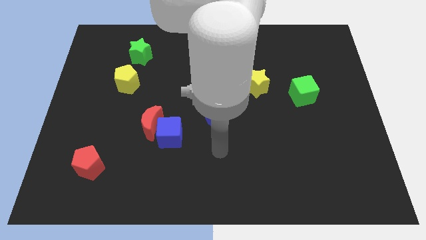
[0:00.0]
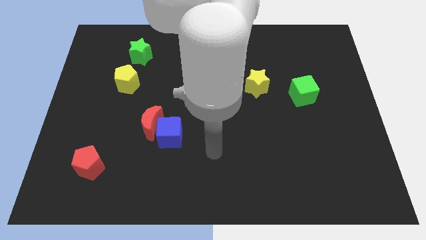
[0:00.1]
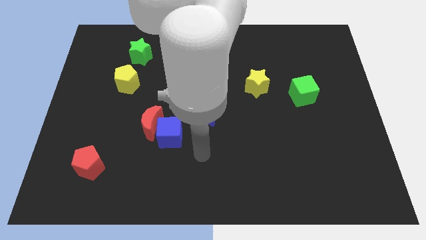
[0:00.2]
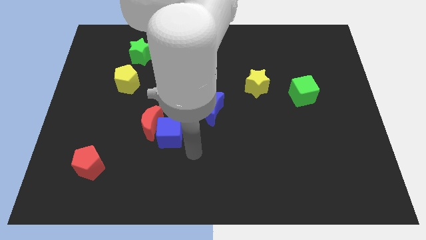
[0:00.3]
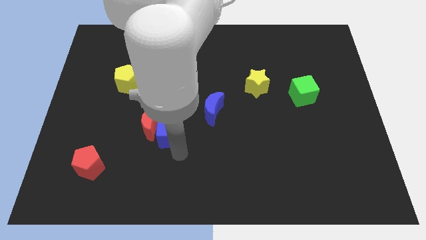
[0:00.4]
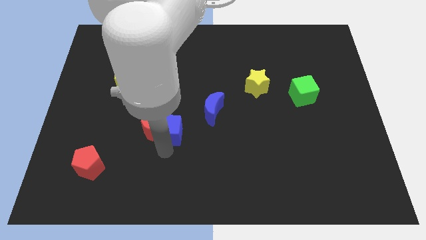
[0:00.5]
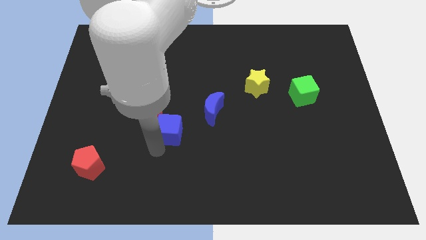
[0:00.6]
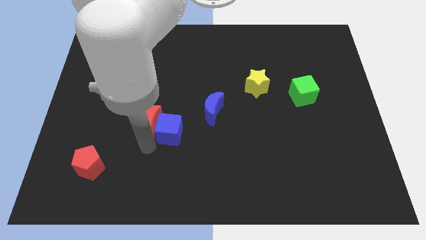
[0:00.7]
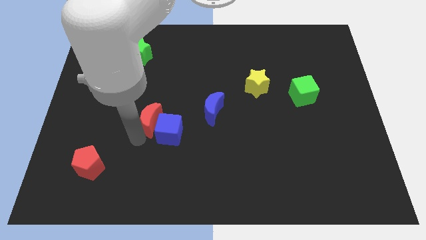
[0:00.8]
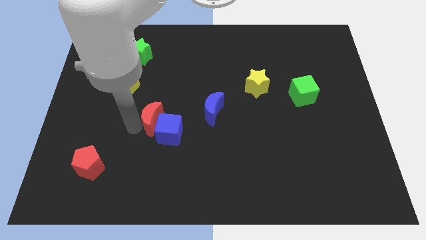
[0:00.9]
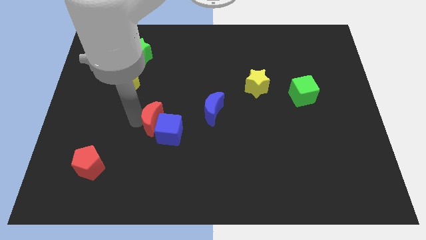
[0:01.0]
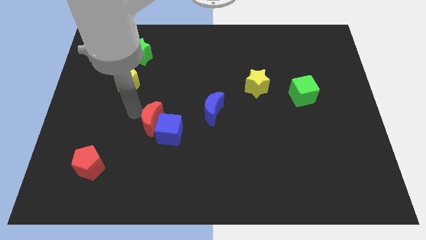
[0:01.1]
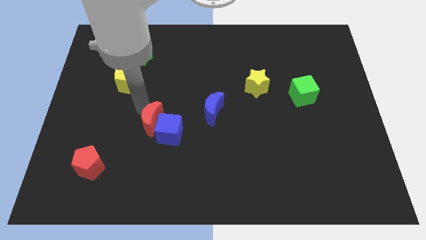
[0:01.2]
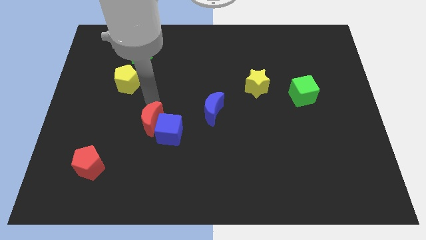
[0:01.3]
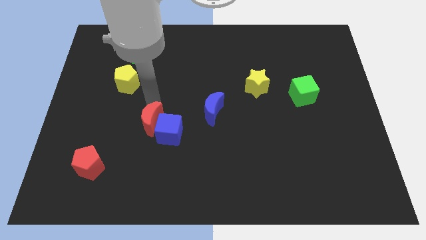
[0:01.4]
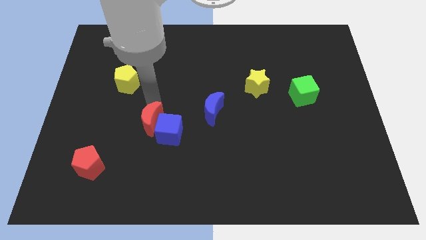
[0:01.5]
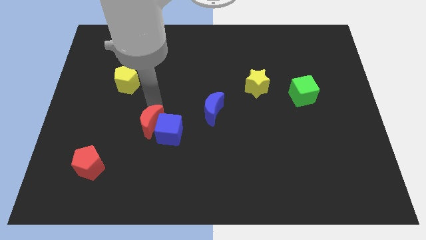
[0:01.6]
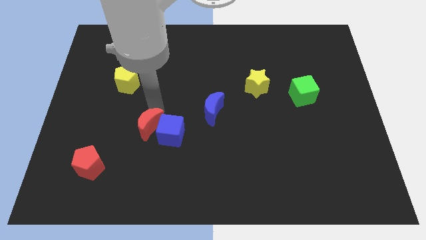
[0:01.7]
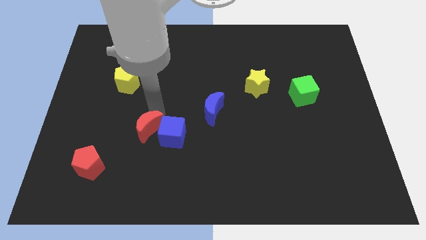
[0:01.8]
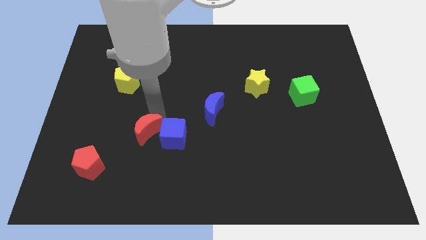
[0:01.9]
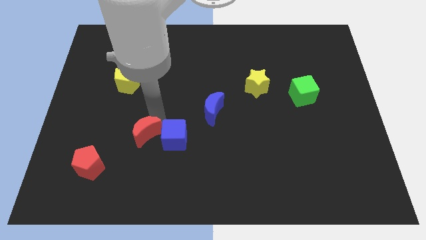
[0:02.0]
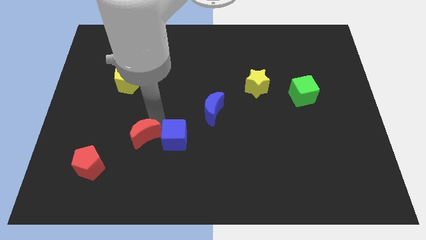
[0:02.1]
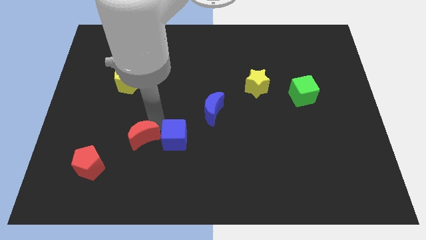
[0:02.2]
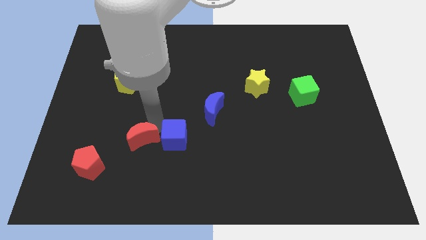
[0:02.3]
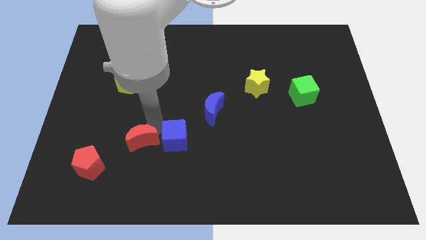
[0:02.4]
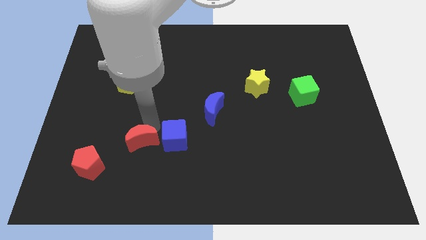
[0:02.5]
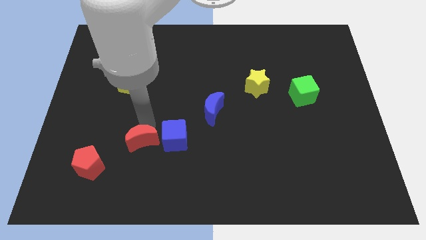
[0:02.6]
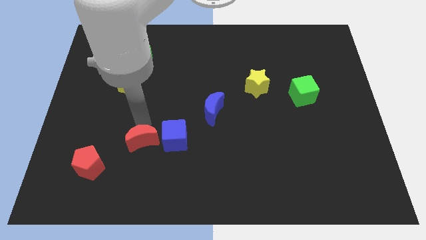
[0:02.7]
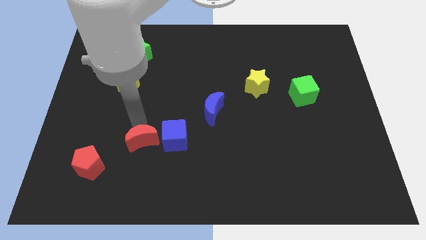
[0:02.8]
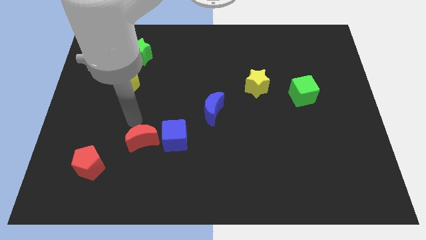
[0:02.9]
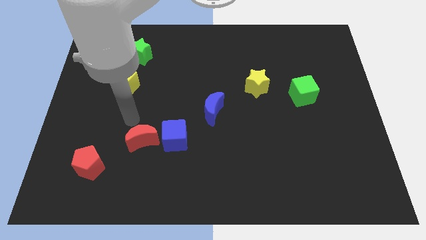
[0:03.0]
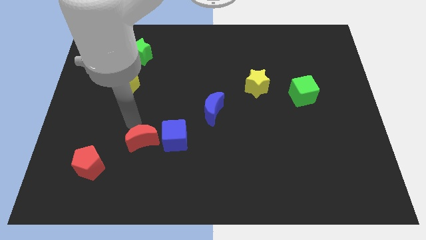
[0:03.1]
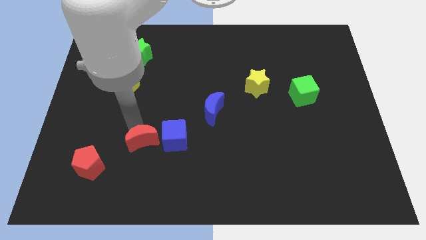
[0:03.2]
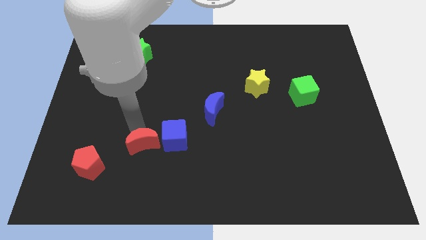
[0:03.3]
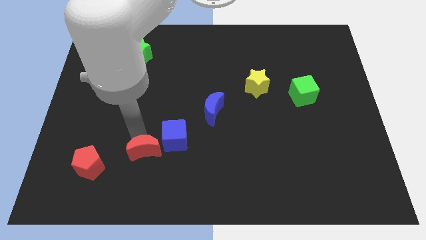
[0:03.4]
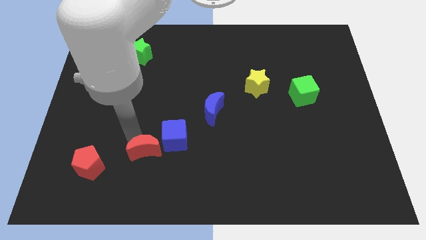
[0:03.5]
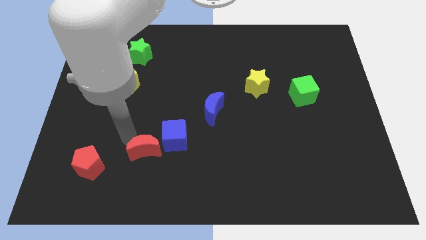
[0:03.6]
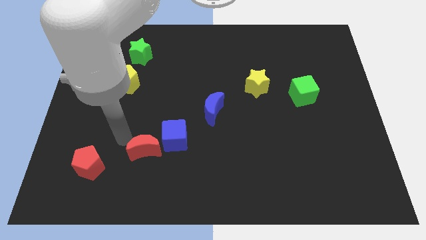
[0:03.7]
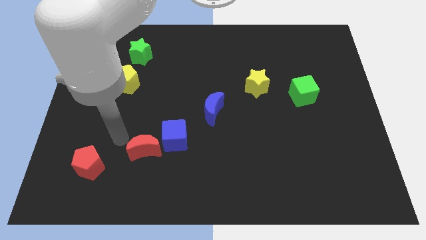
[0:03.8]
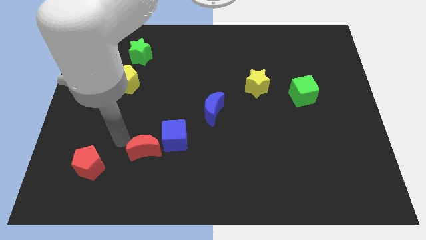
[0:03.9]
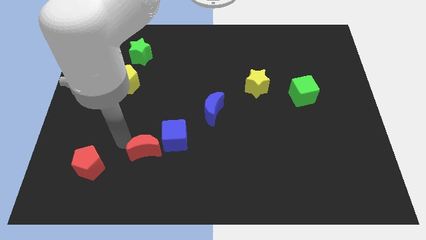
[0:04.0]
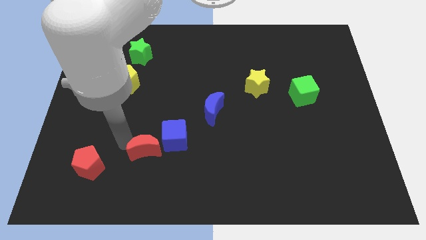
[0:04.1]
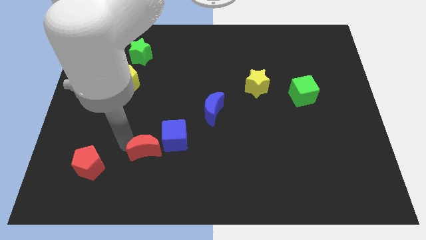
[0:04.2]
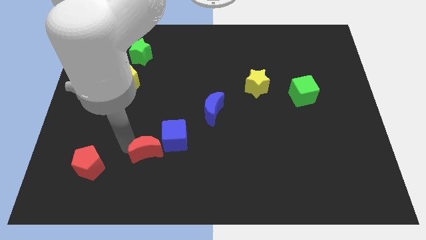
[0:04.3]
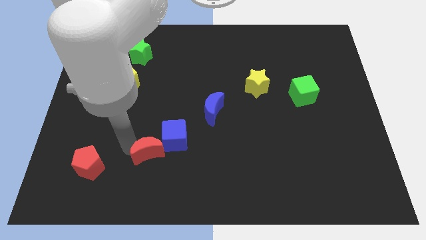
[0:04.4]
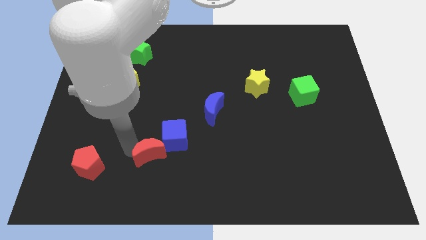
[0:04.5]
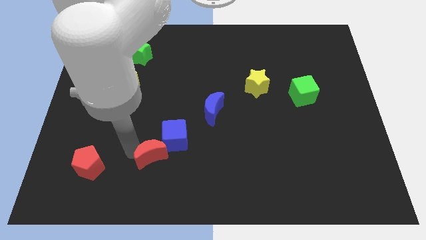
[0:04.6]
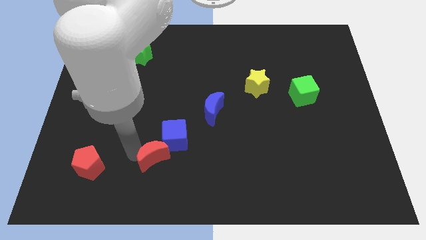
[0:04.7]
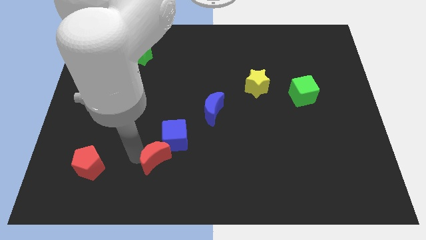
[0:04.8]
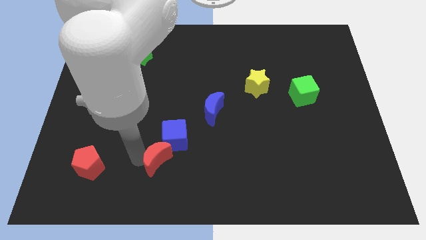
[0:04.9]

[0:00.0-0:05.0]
push the red moon a little bit downwards and to the right diagonally

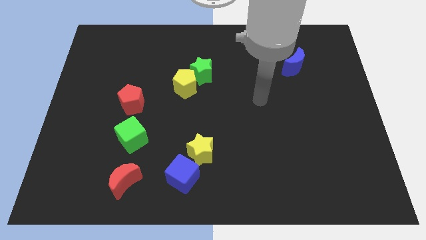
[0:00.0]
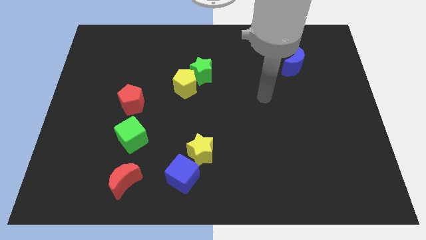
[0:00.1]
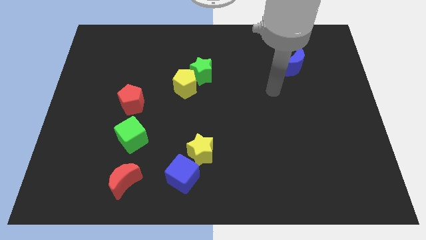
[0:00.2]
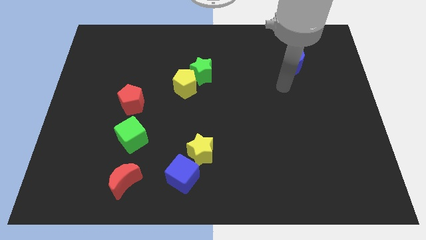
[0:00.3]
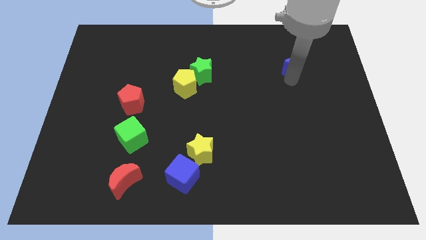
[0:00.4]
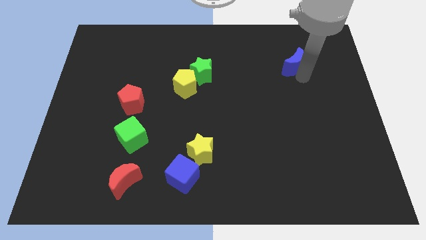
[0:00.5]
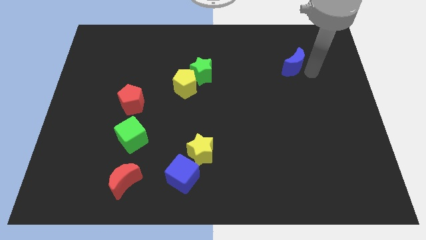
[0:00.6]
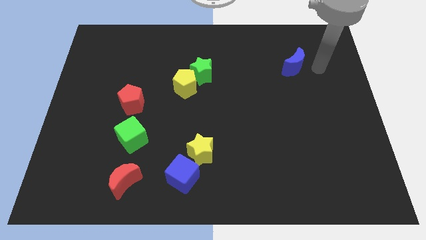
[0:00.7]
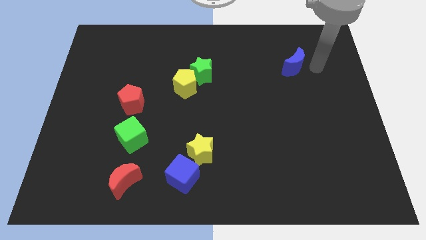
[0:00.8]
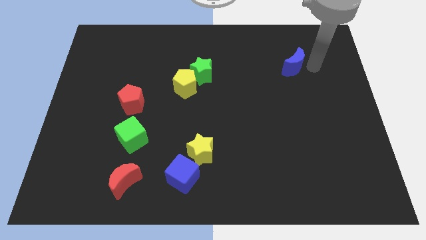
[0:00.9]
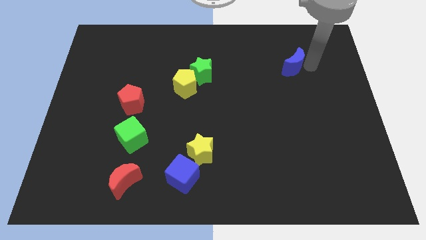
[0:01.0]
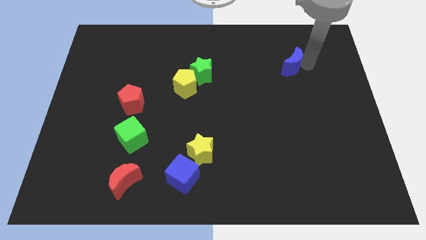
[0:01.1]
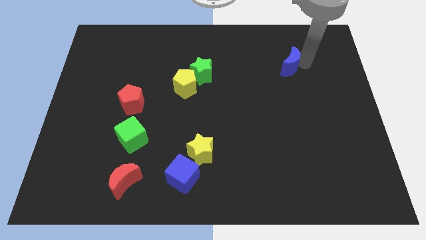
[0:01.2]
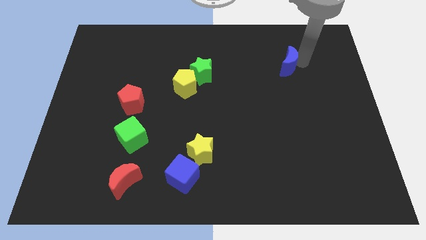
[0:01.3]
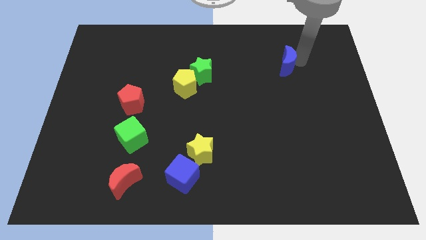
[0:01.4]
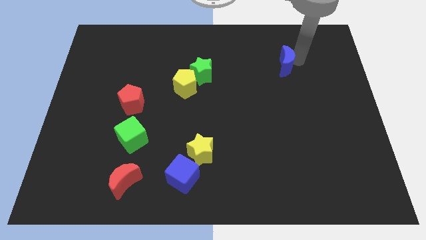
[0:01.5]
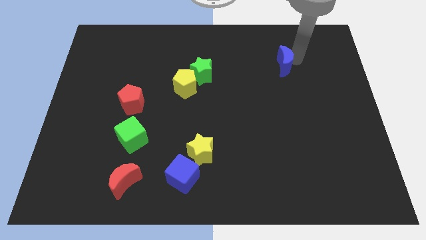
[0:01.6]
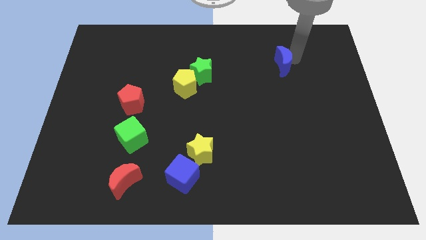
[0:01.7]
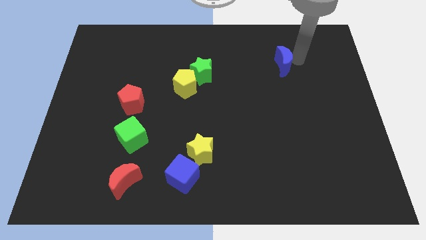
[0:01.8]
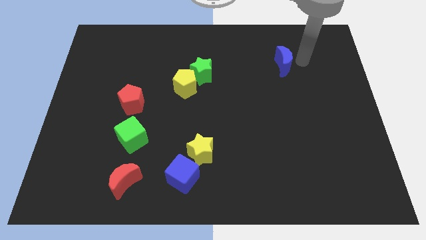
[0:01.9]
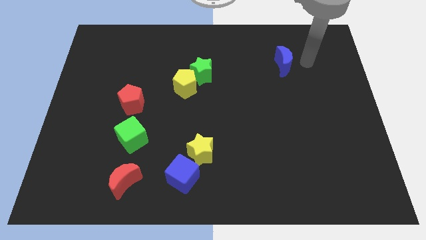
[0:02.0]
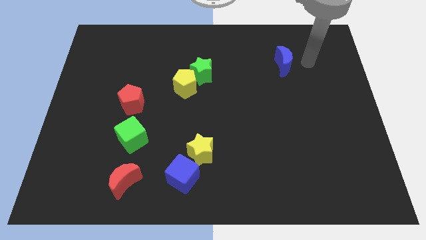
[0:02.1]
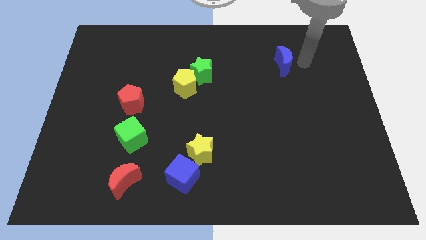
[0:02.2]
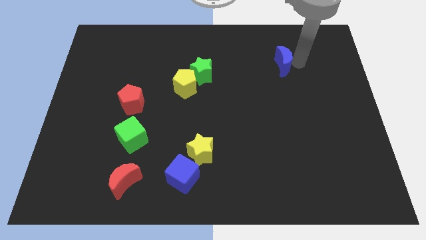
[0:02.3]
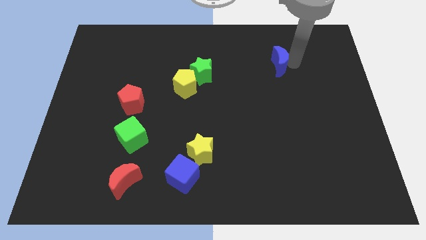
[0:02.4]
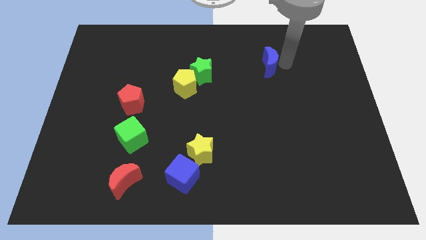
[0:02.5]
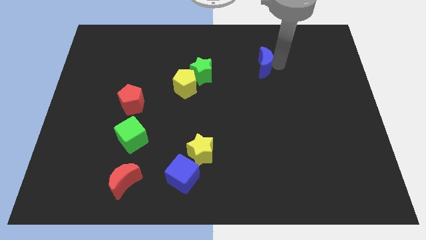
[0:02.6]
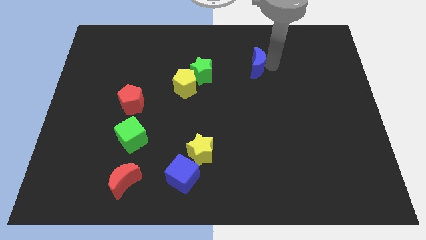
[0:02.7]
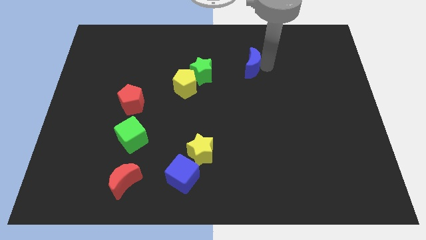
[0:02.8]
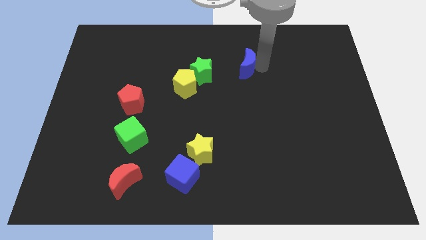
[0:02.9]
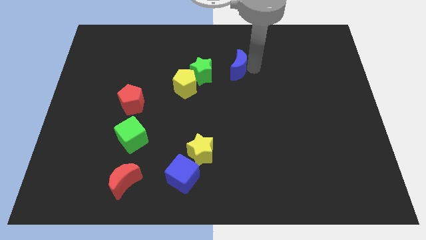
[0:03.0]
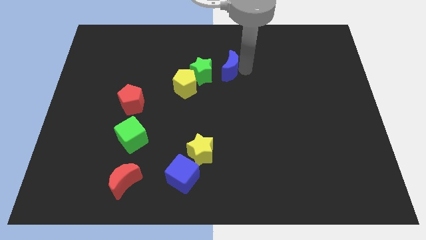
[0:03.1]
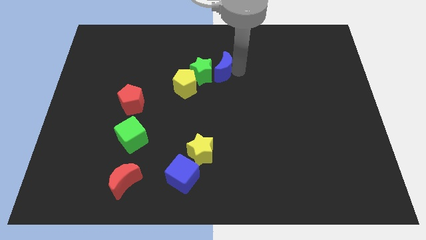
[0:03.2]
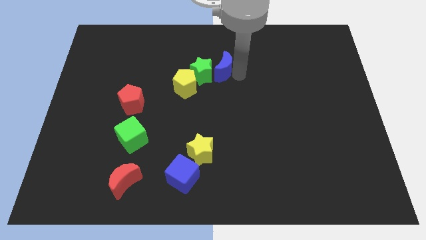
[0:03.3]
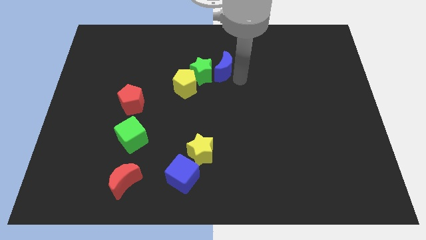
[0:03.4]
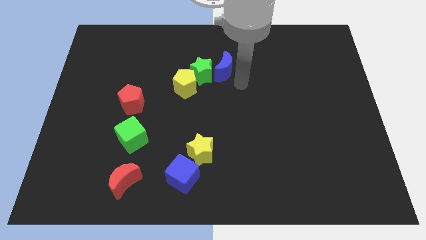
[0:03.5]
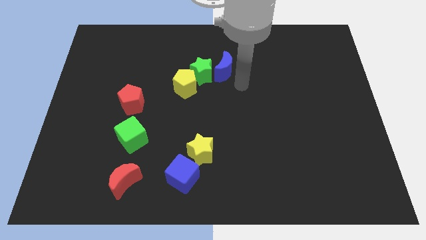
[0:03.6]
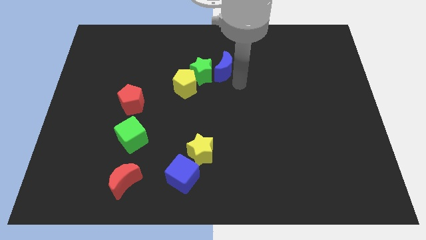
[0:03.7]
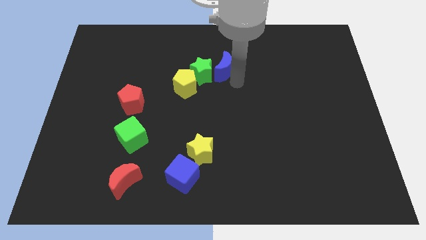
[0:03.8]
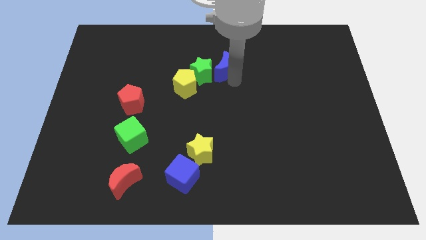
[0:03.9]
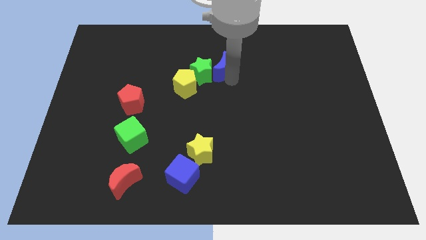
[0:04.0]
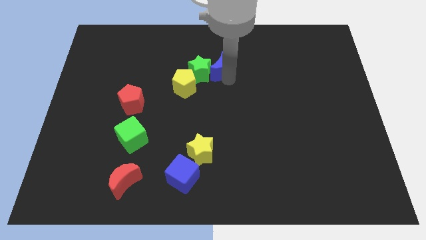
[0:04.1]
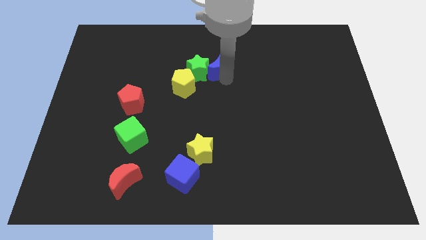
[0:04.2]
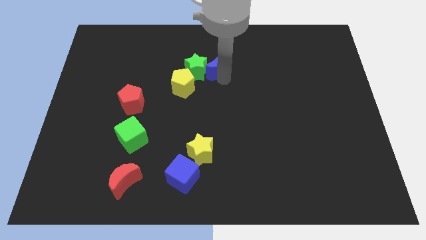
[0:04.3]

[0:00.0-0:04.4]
move the blue moon to the left
